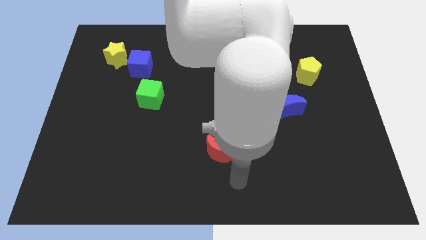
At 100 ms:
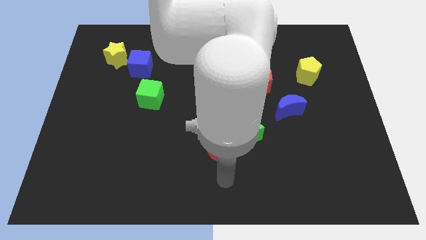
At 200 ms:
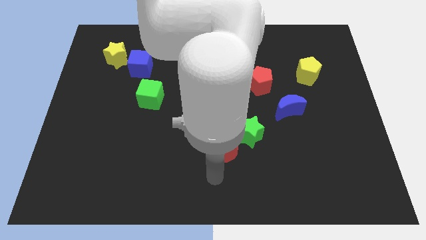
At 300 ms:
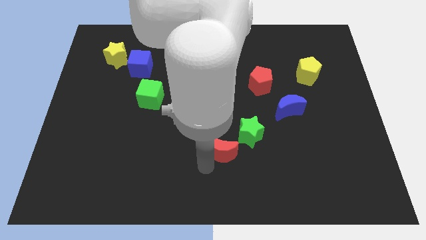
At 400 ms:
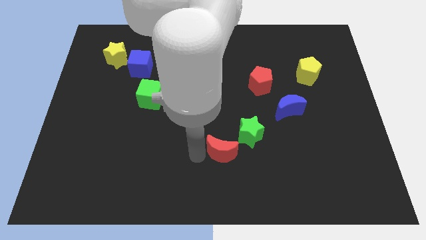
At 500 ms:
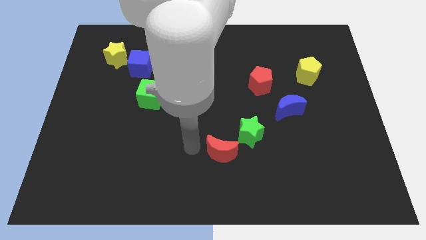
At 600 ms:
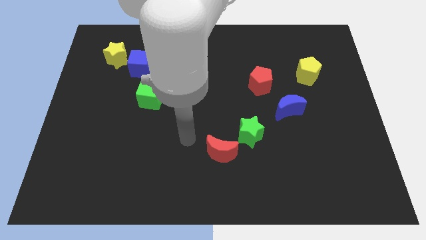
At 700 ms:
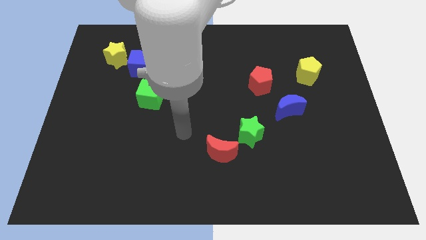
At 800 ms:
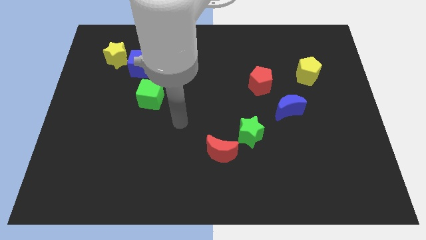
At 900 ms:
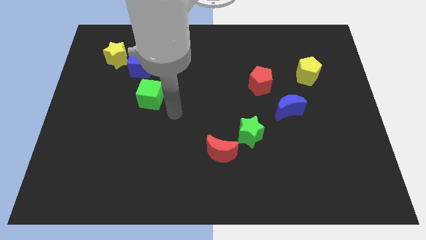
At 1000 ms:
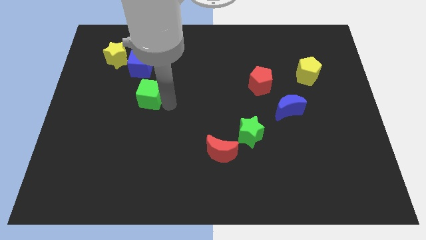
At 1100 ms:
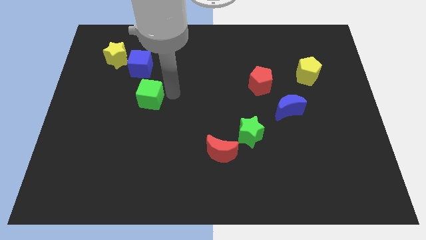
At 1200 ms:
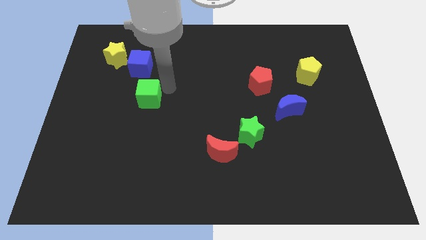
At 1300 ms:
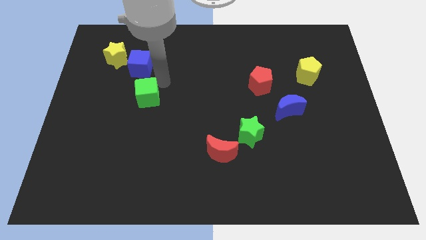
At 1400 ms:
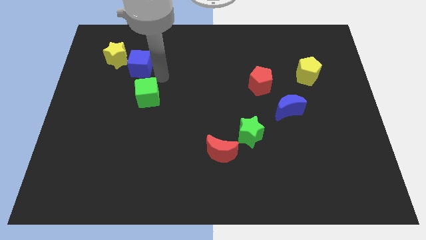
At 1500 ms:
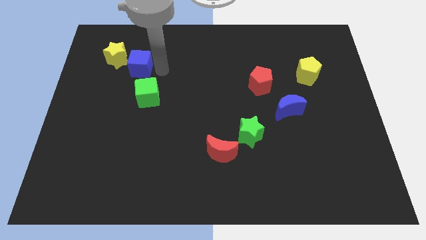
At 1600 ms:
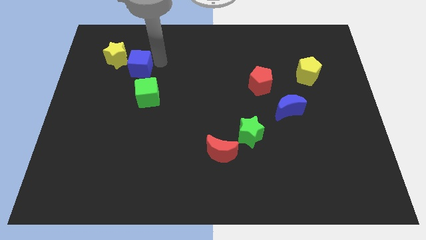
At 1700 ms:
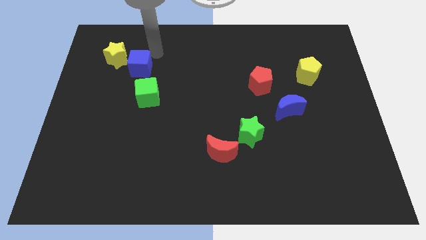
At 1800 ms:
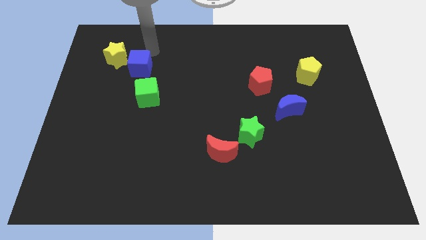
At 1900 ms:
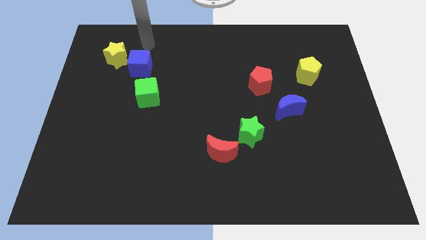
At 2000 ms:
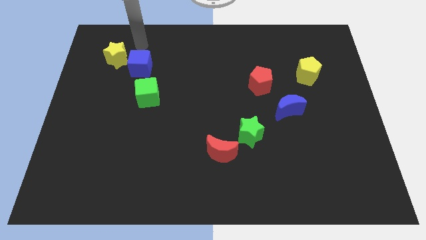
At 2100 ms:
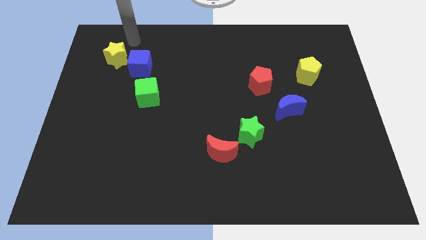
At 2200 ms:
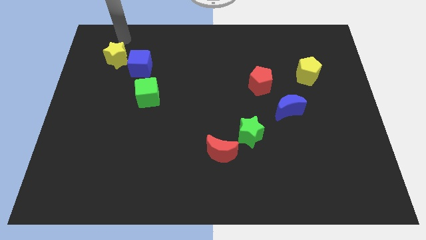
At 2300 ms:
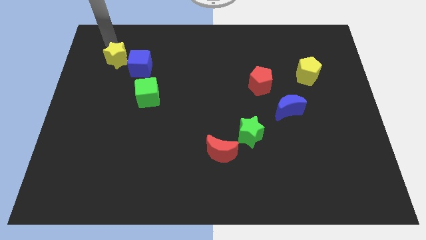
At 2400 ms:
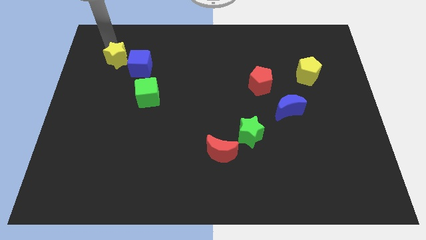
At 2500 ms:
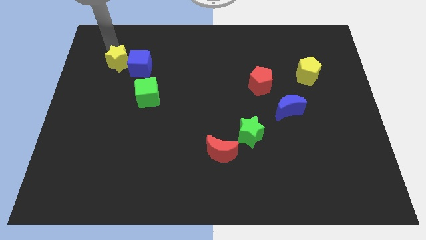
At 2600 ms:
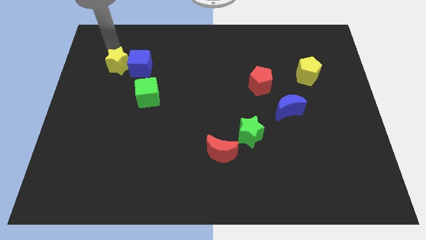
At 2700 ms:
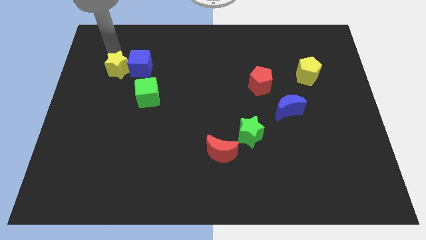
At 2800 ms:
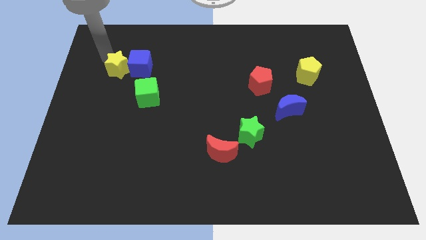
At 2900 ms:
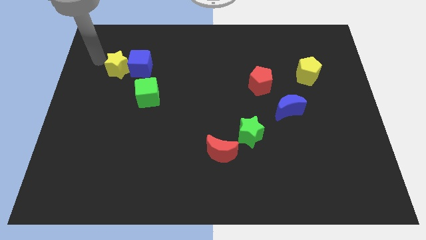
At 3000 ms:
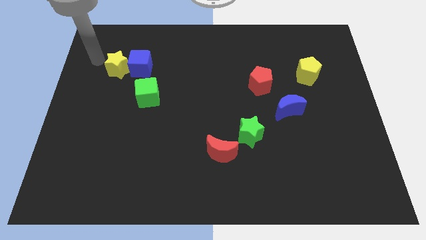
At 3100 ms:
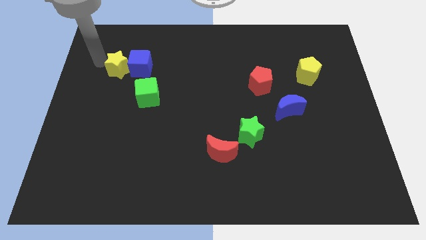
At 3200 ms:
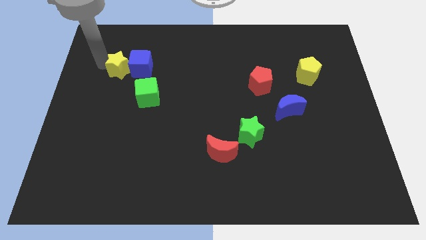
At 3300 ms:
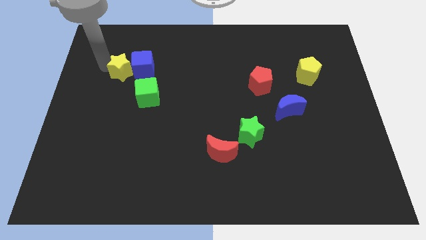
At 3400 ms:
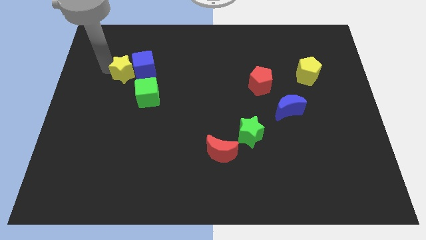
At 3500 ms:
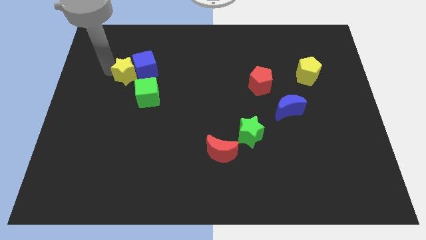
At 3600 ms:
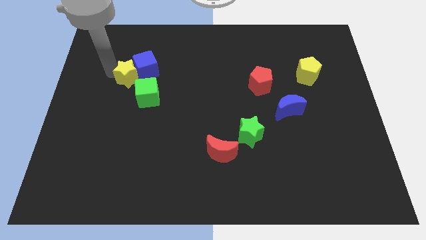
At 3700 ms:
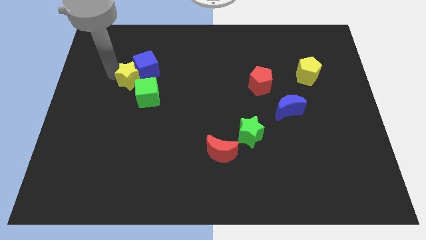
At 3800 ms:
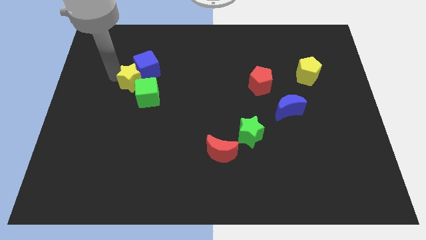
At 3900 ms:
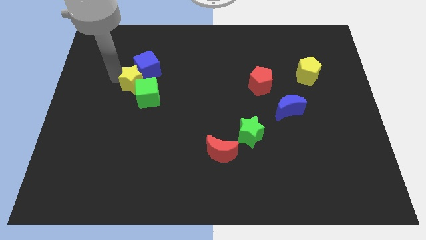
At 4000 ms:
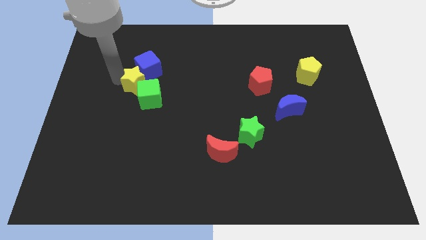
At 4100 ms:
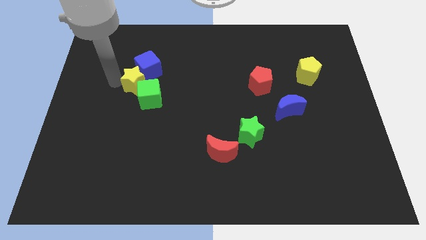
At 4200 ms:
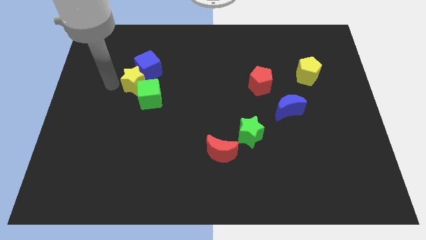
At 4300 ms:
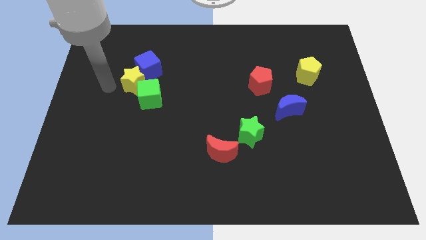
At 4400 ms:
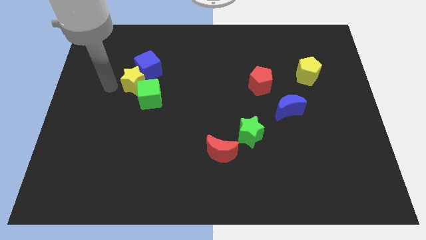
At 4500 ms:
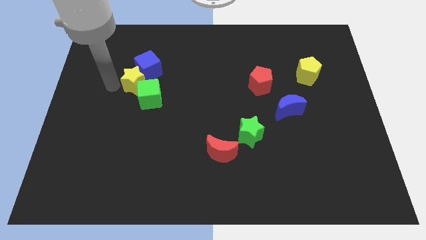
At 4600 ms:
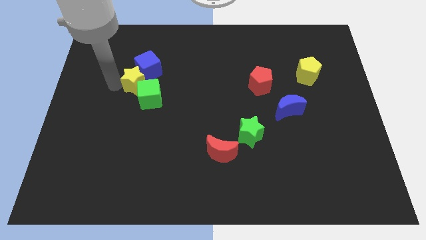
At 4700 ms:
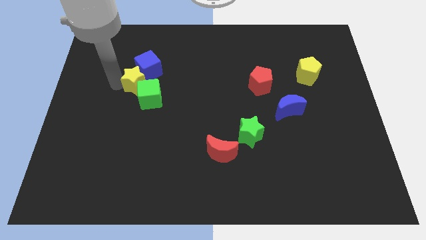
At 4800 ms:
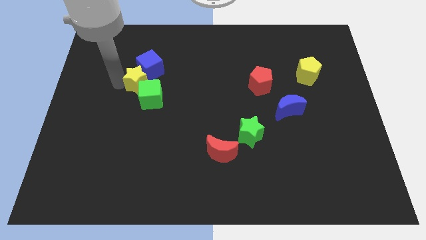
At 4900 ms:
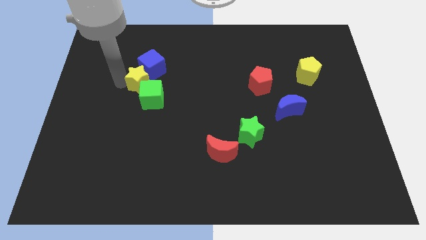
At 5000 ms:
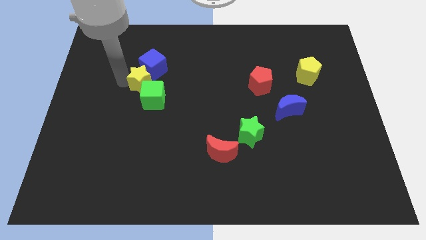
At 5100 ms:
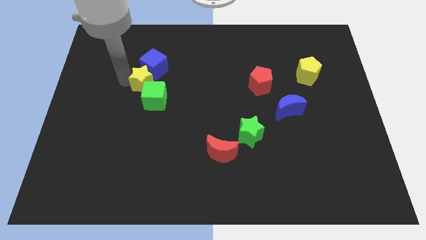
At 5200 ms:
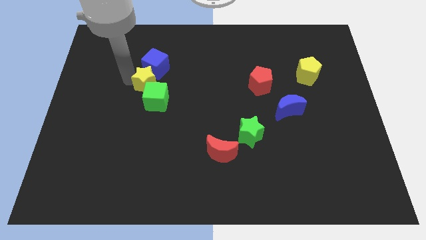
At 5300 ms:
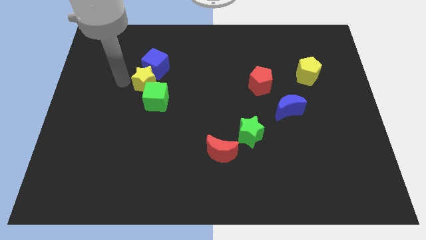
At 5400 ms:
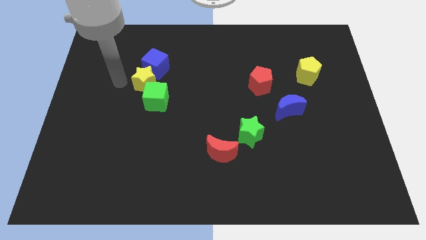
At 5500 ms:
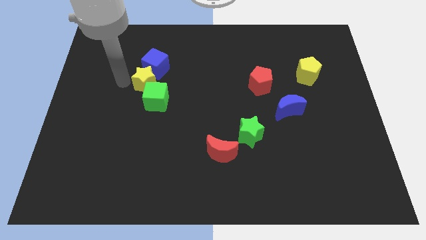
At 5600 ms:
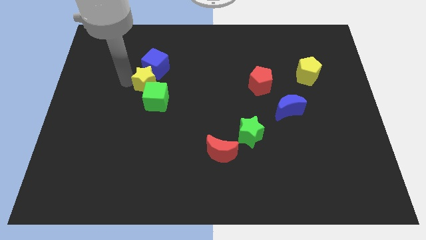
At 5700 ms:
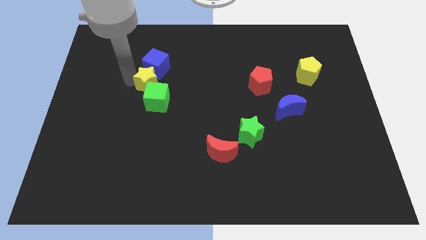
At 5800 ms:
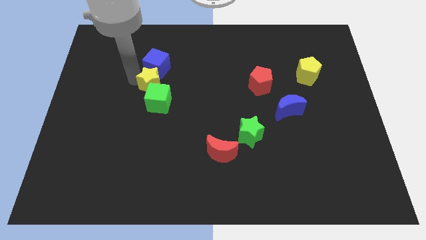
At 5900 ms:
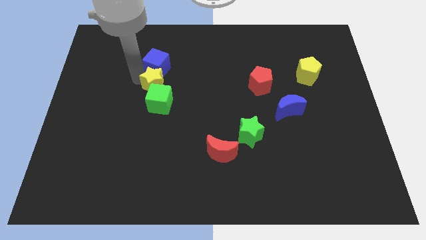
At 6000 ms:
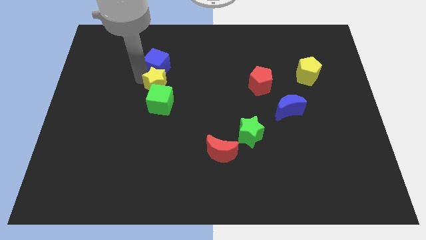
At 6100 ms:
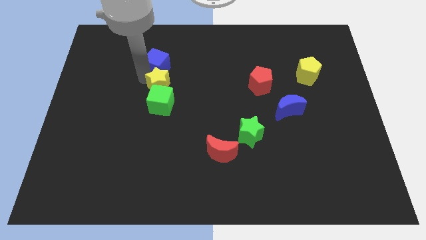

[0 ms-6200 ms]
push the yellow star diagonally up and to the right of the green cube

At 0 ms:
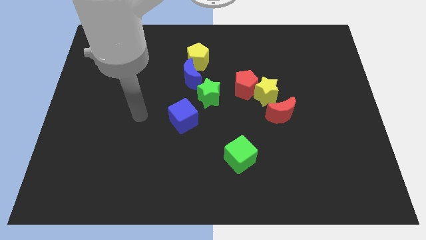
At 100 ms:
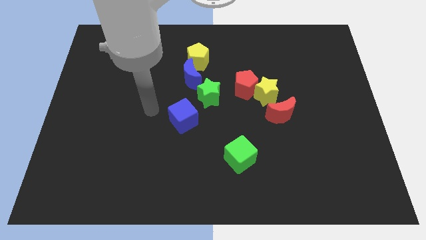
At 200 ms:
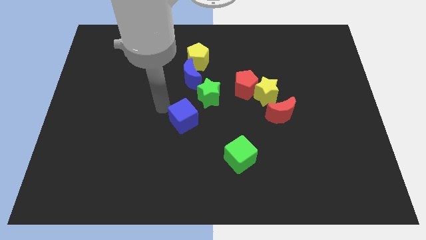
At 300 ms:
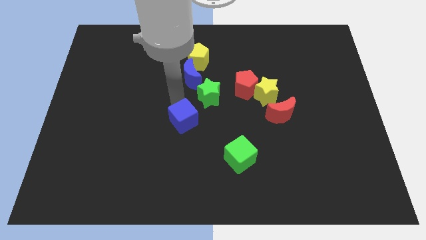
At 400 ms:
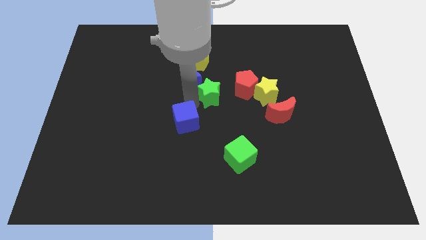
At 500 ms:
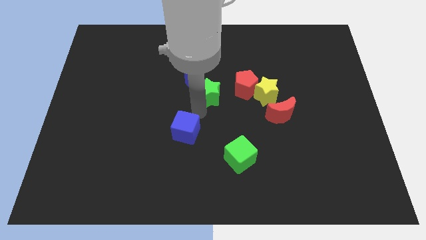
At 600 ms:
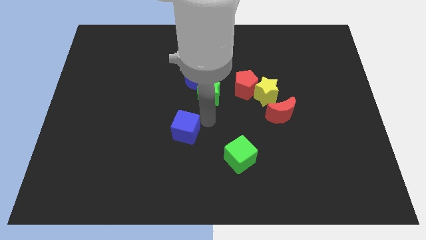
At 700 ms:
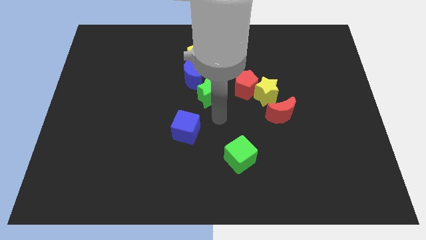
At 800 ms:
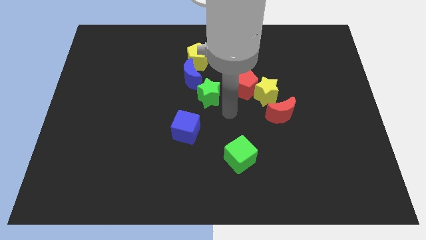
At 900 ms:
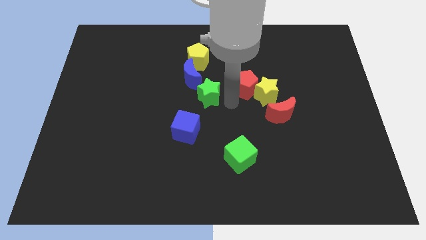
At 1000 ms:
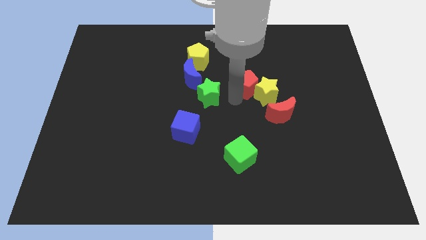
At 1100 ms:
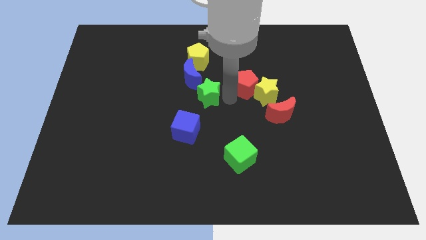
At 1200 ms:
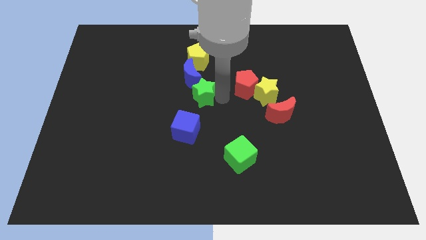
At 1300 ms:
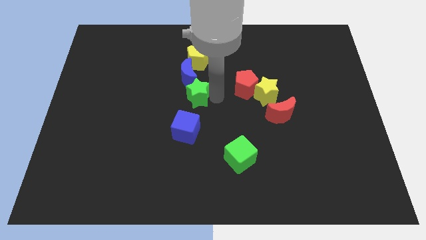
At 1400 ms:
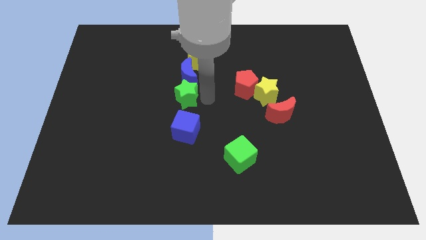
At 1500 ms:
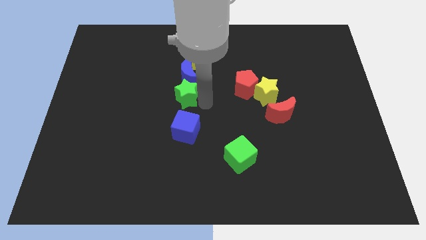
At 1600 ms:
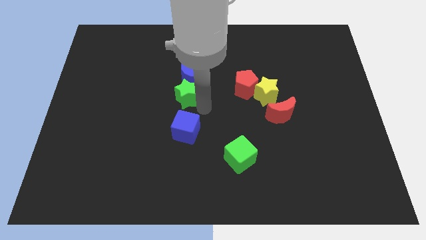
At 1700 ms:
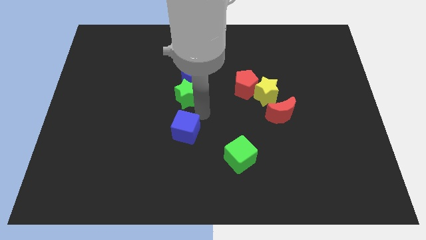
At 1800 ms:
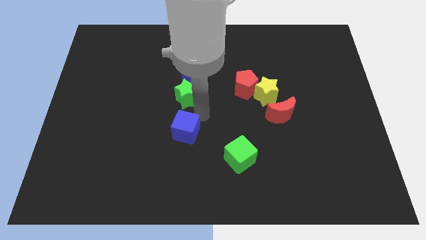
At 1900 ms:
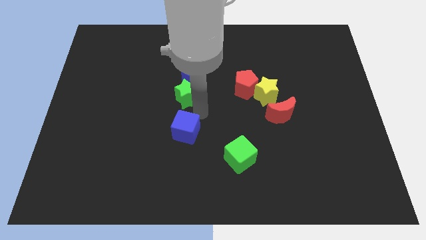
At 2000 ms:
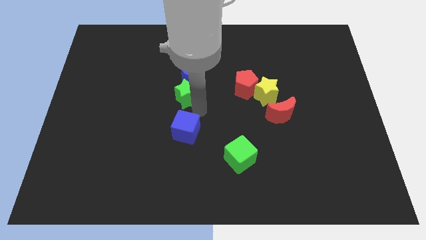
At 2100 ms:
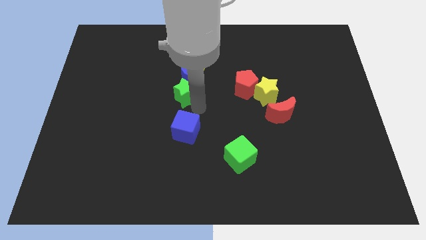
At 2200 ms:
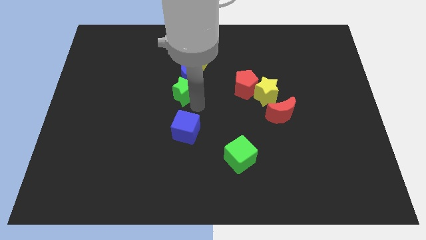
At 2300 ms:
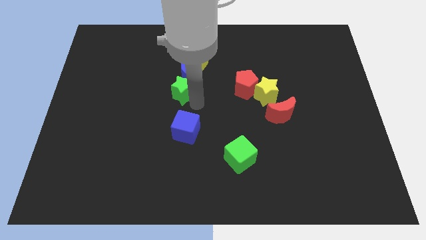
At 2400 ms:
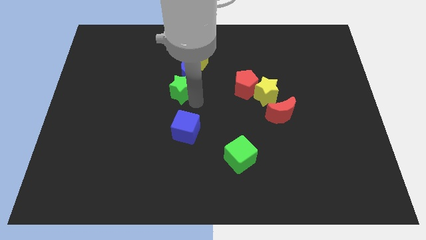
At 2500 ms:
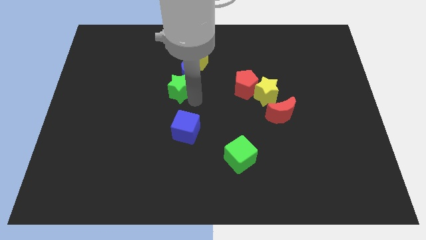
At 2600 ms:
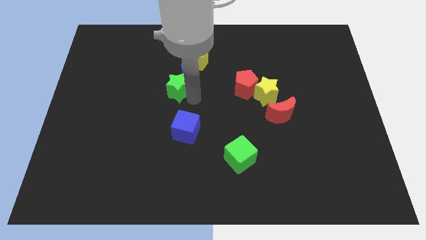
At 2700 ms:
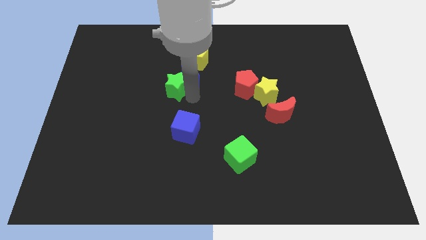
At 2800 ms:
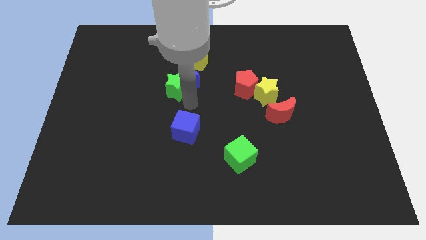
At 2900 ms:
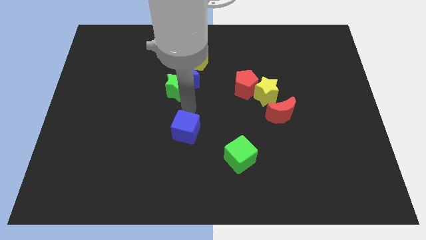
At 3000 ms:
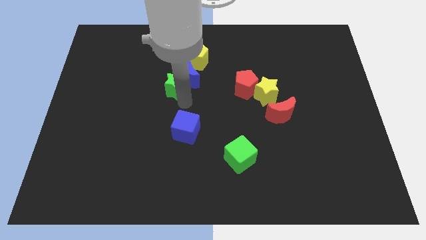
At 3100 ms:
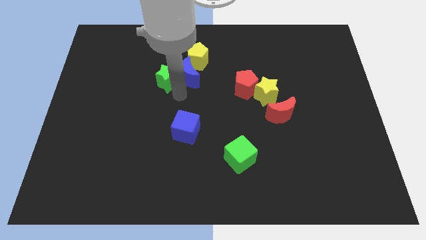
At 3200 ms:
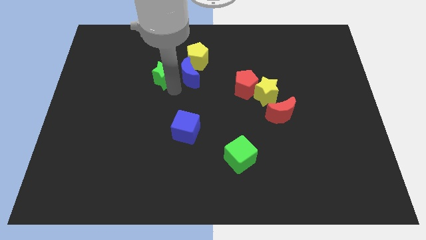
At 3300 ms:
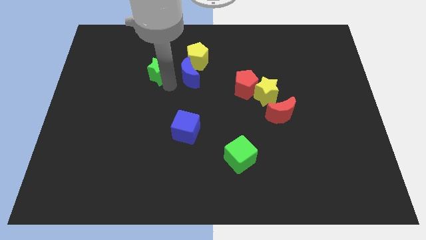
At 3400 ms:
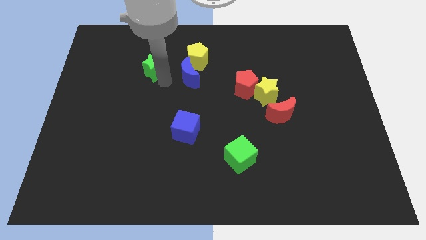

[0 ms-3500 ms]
put the green star left of the yellow pentagon
